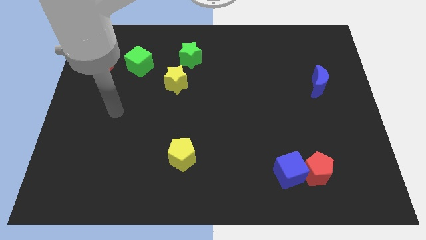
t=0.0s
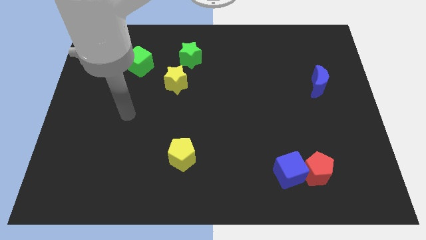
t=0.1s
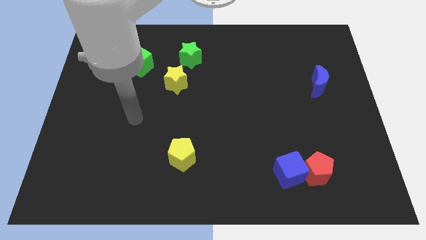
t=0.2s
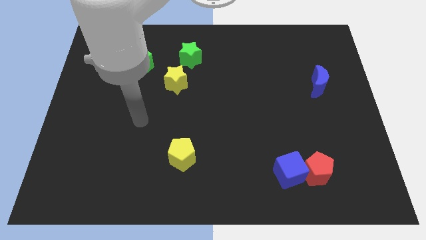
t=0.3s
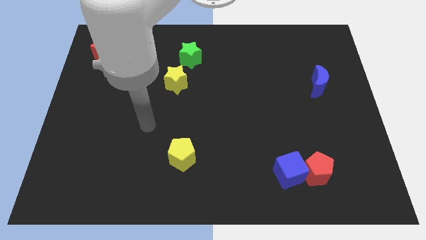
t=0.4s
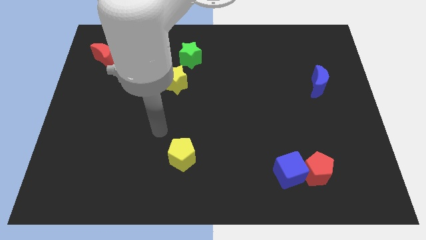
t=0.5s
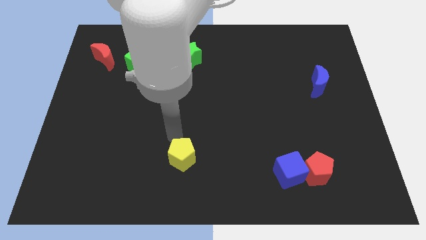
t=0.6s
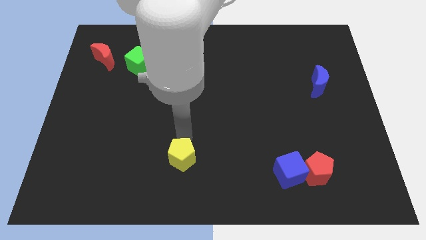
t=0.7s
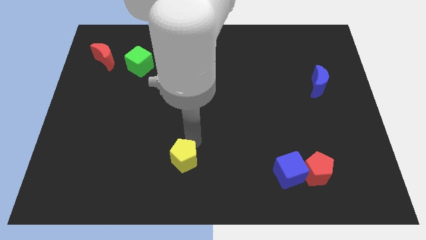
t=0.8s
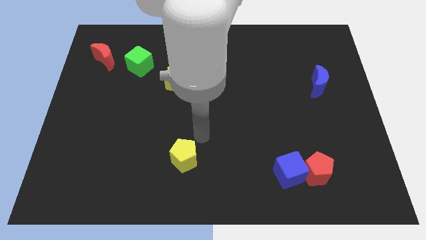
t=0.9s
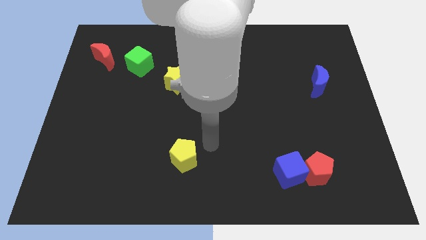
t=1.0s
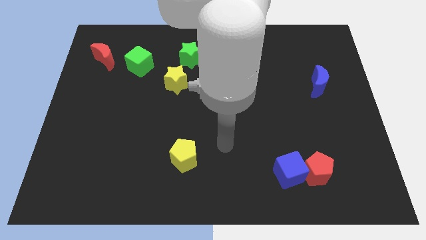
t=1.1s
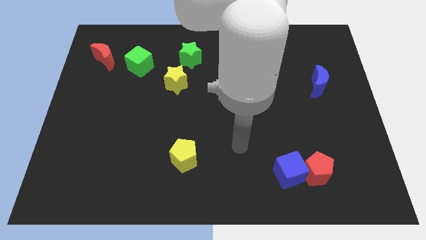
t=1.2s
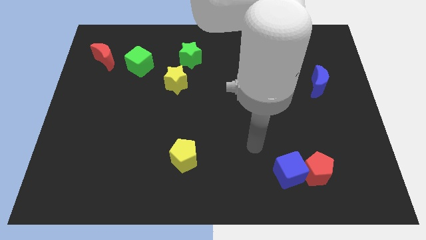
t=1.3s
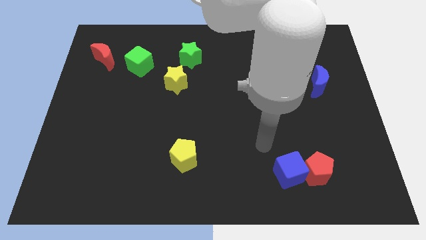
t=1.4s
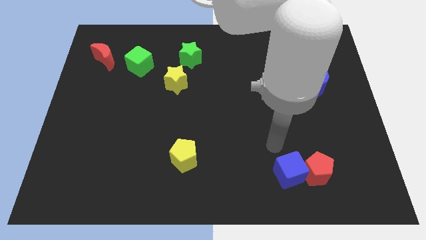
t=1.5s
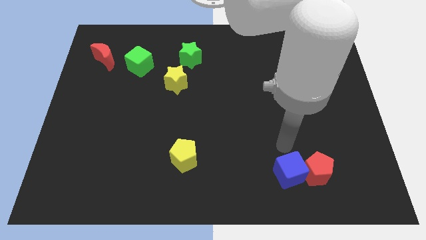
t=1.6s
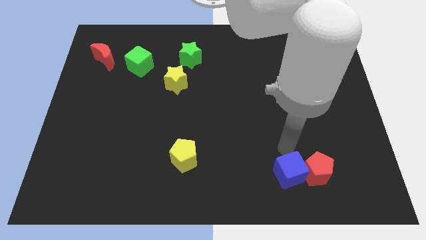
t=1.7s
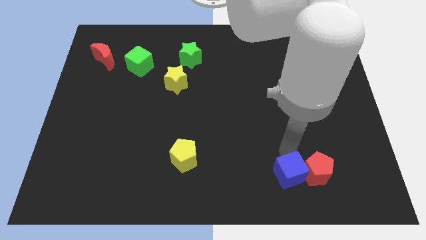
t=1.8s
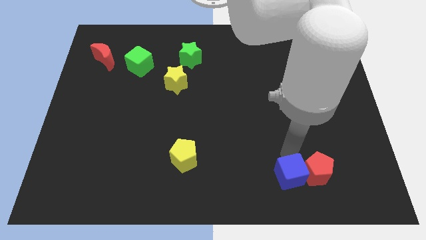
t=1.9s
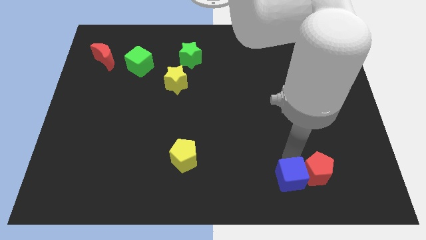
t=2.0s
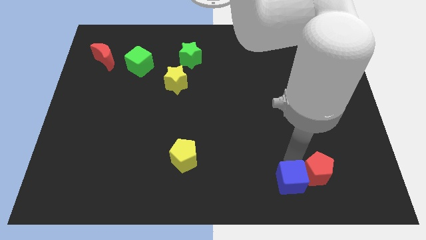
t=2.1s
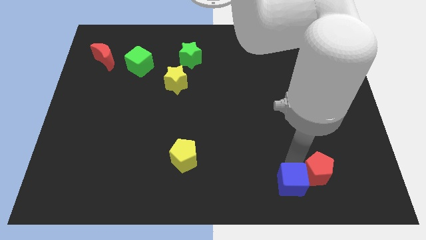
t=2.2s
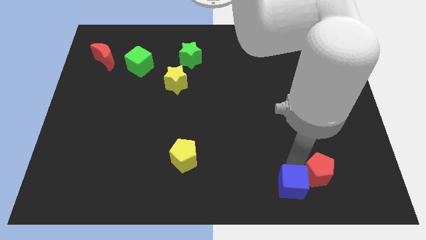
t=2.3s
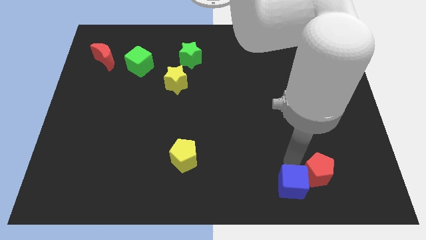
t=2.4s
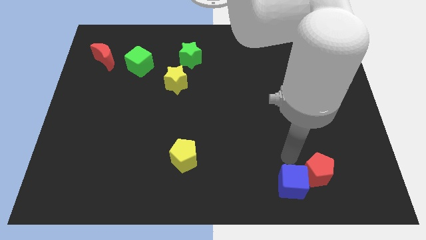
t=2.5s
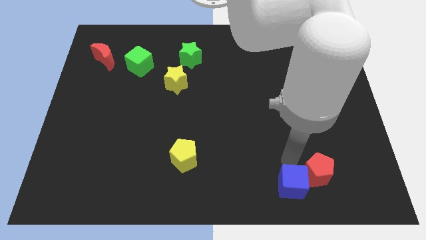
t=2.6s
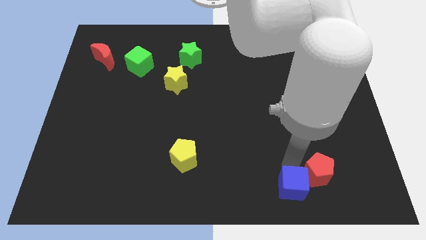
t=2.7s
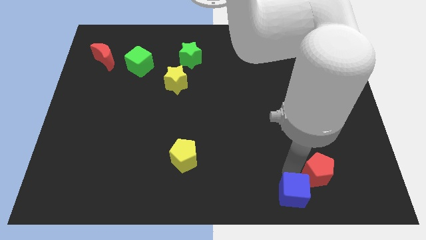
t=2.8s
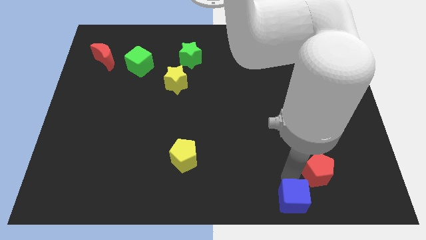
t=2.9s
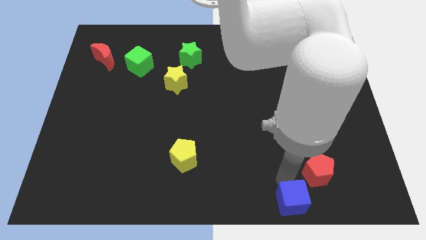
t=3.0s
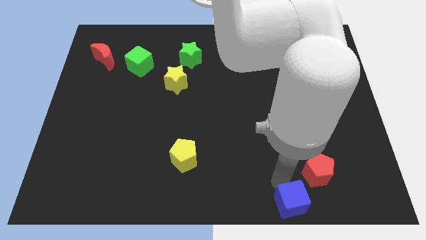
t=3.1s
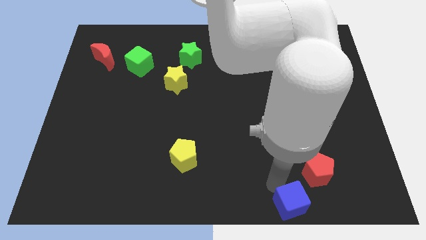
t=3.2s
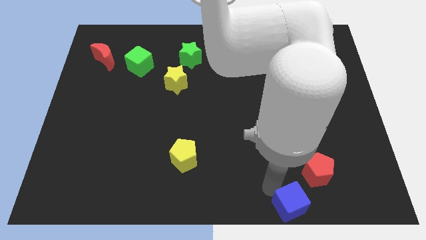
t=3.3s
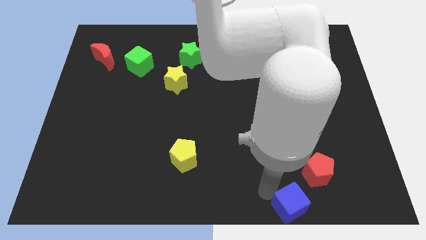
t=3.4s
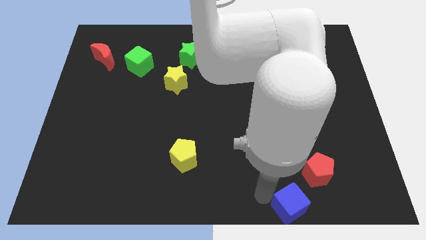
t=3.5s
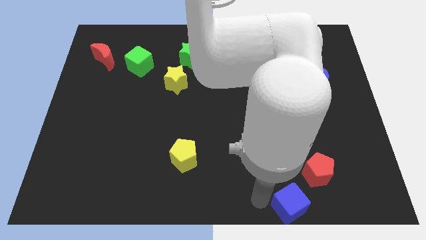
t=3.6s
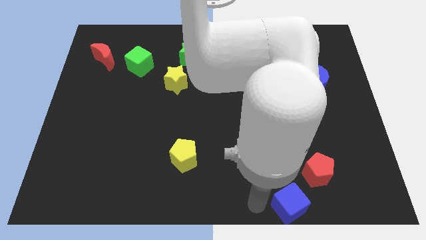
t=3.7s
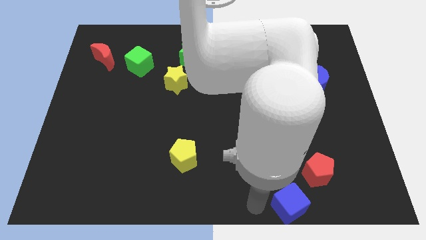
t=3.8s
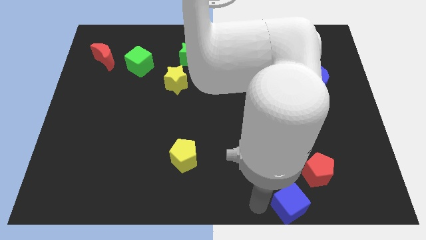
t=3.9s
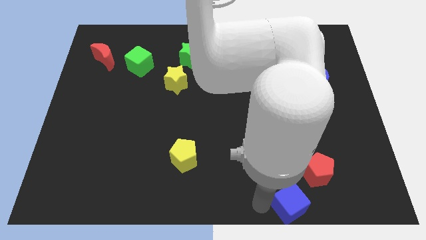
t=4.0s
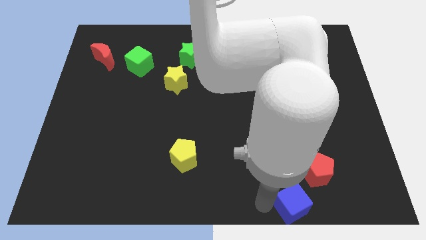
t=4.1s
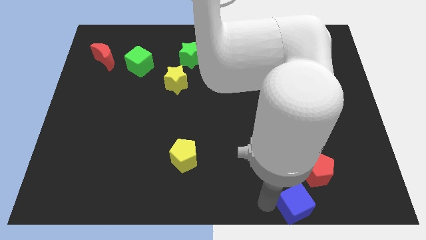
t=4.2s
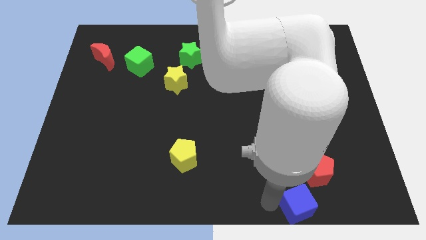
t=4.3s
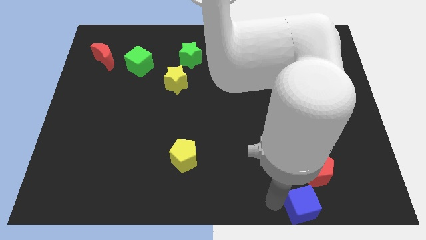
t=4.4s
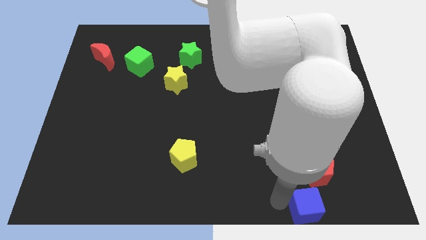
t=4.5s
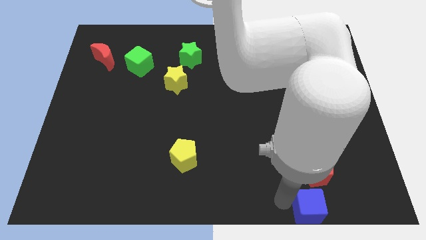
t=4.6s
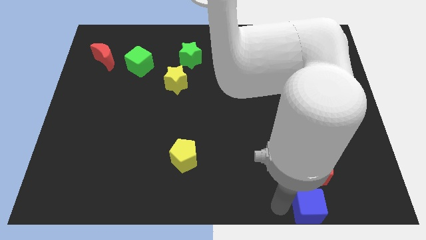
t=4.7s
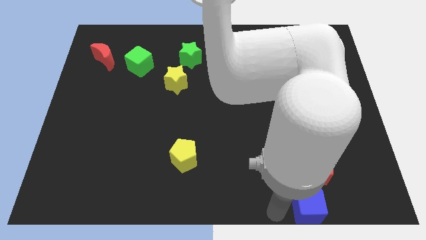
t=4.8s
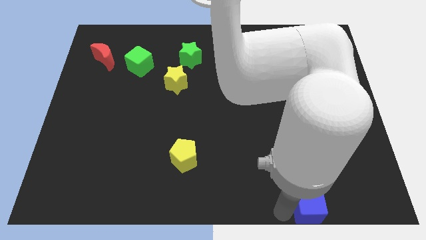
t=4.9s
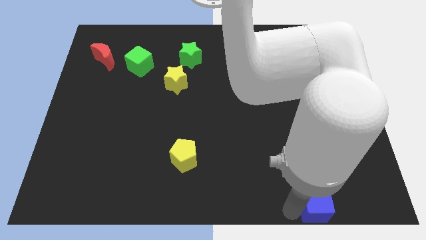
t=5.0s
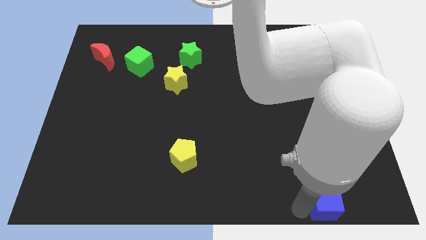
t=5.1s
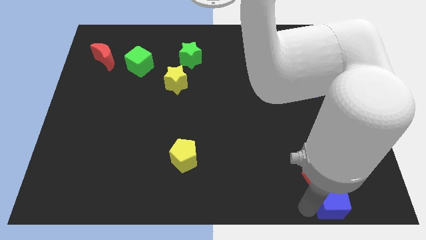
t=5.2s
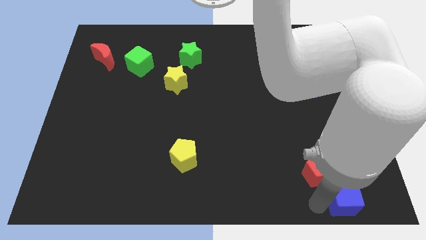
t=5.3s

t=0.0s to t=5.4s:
put the blue cube to the bottom right corner

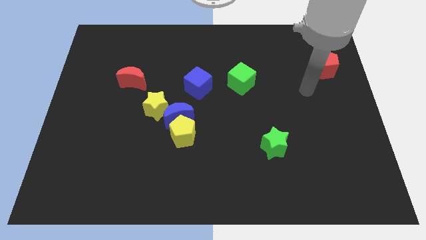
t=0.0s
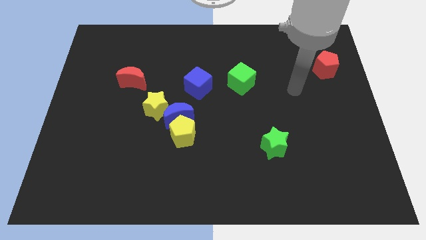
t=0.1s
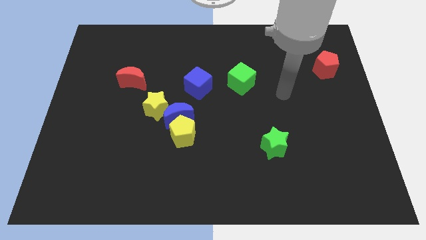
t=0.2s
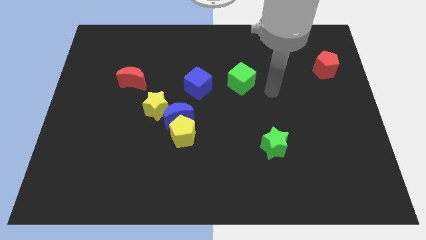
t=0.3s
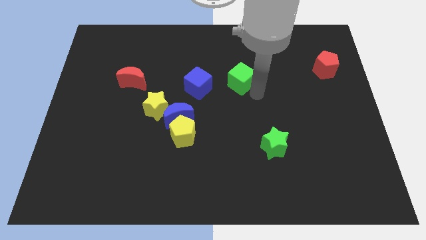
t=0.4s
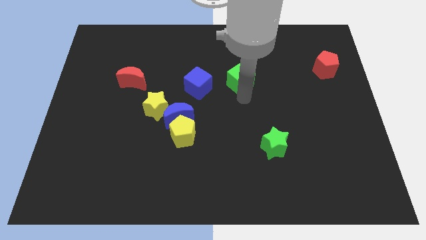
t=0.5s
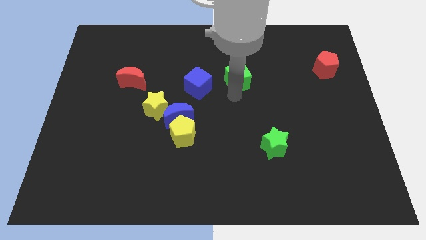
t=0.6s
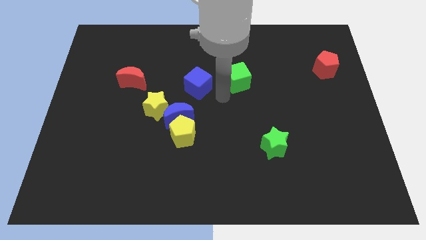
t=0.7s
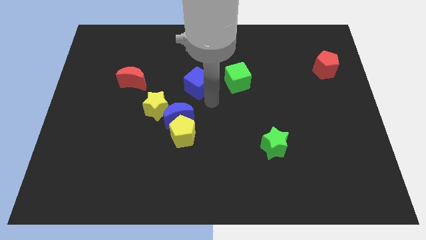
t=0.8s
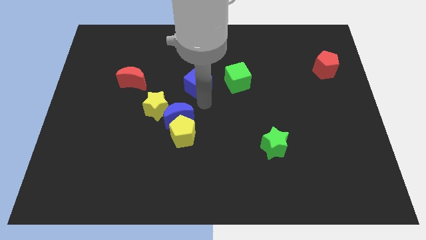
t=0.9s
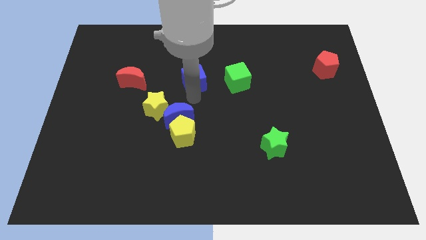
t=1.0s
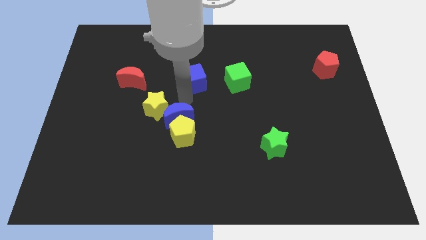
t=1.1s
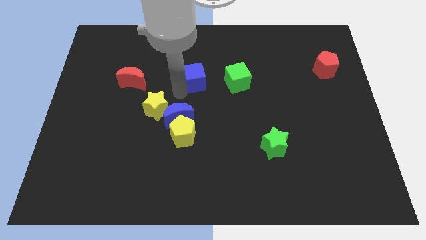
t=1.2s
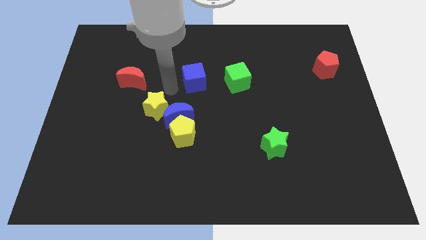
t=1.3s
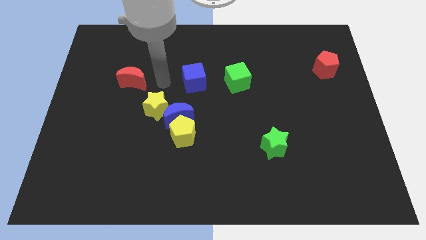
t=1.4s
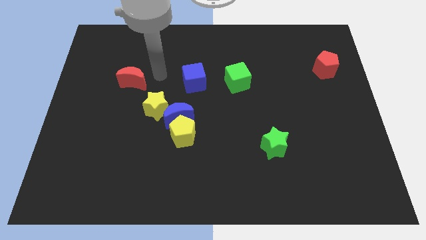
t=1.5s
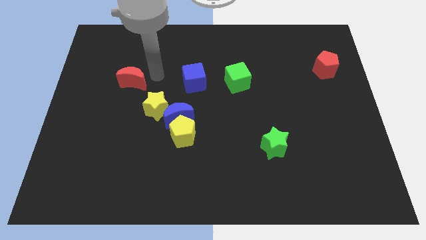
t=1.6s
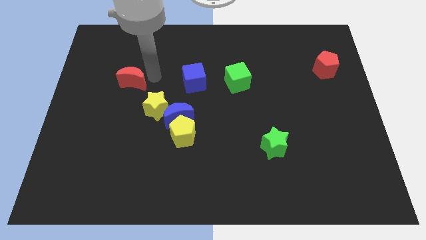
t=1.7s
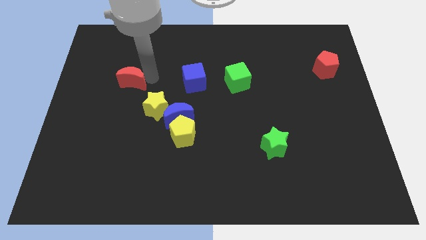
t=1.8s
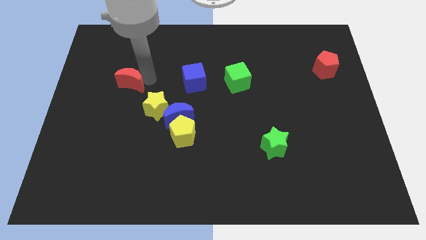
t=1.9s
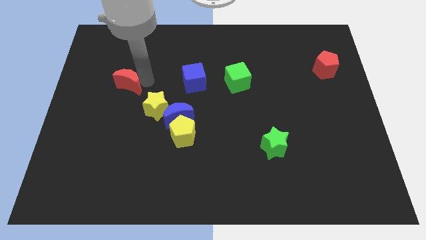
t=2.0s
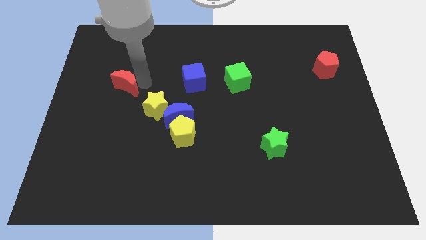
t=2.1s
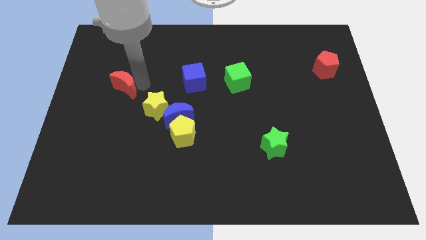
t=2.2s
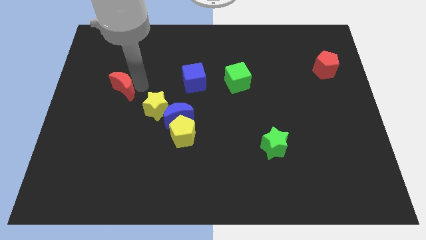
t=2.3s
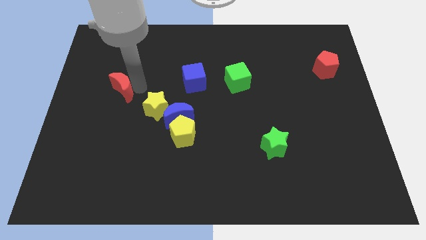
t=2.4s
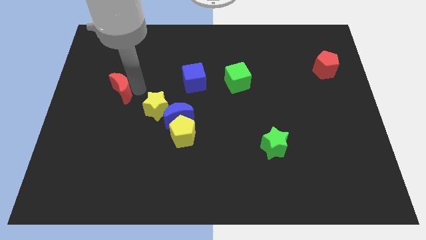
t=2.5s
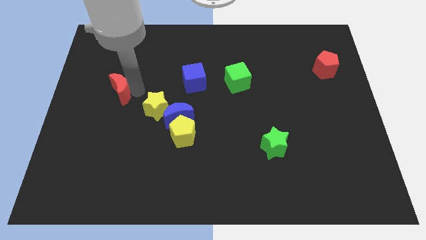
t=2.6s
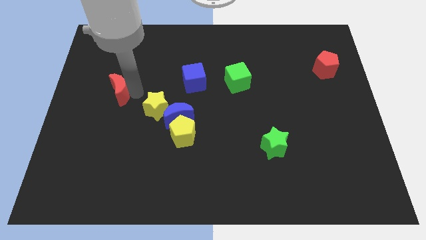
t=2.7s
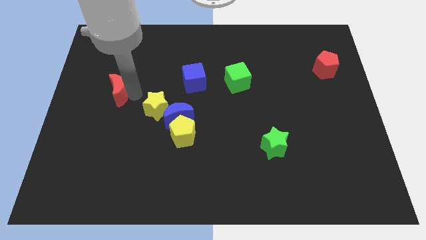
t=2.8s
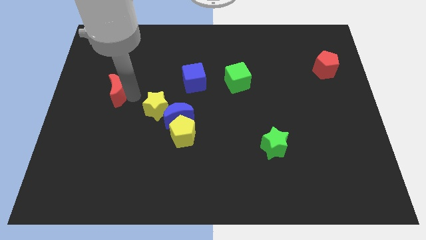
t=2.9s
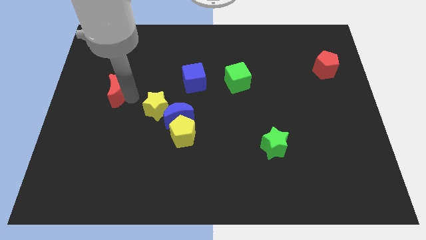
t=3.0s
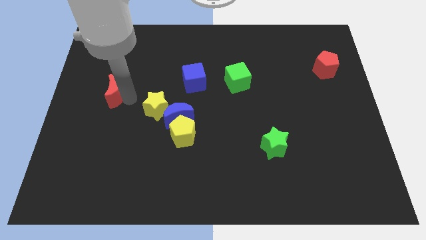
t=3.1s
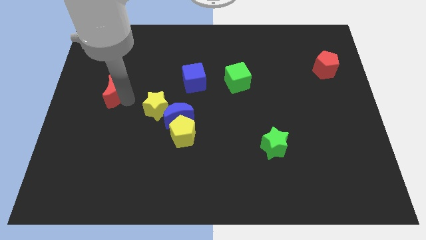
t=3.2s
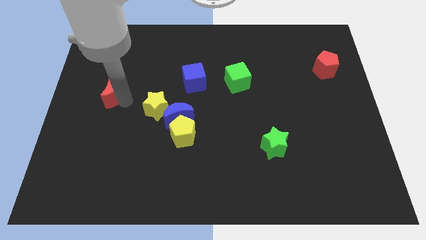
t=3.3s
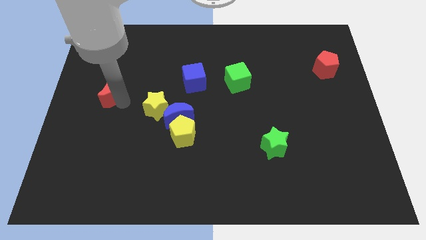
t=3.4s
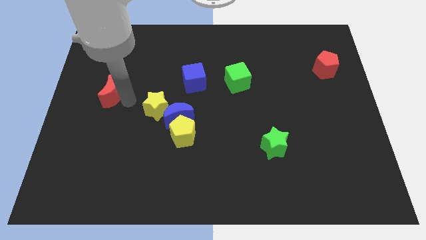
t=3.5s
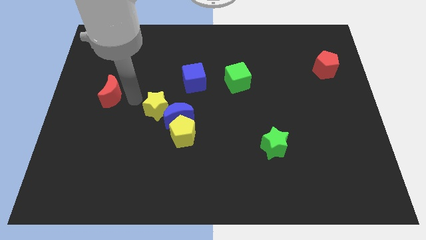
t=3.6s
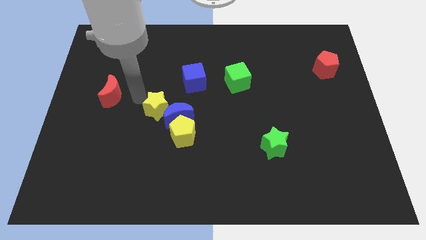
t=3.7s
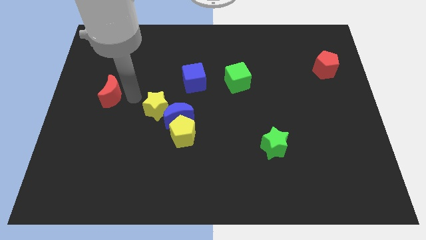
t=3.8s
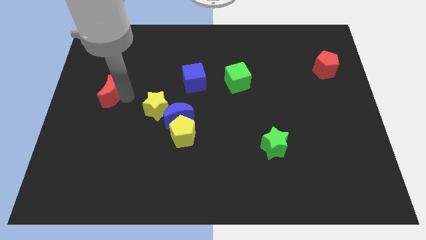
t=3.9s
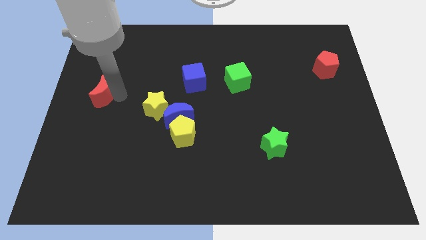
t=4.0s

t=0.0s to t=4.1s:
put the red moon to the left side of the board
